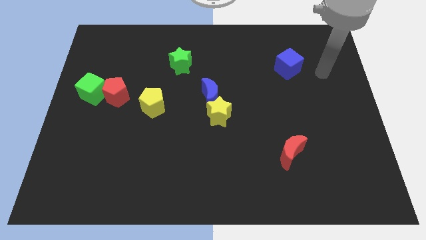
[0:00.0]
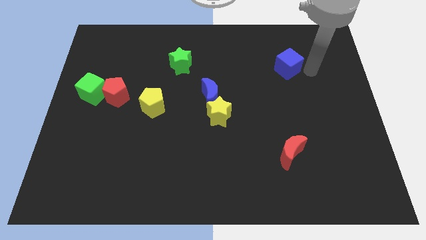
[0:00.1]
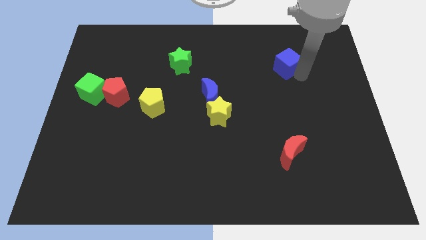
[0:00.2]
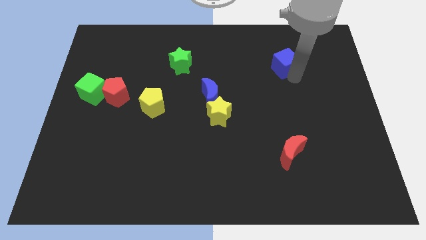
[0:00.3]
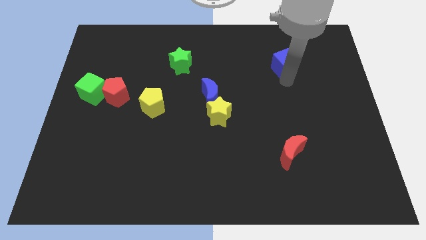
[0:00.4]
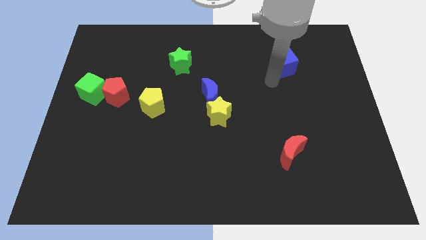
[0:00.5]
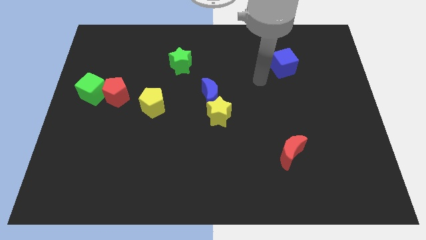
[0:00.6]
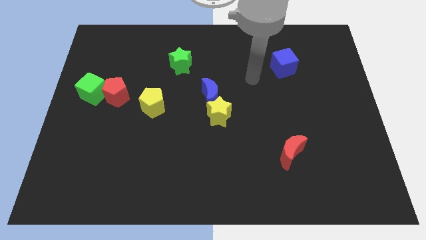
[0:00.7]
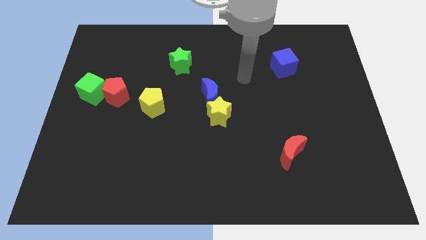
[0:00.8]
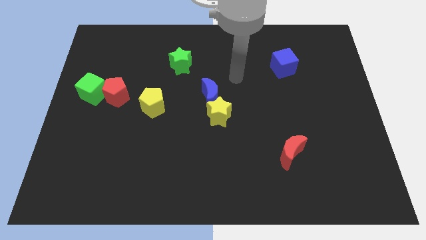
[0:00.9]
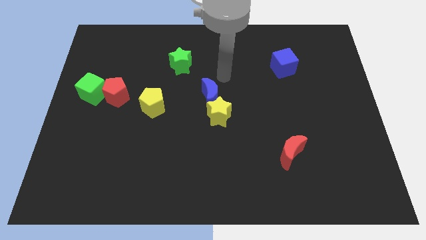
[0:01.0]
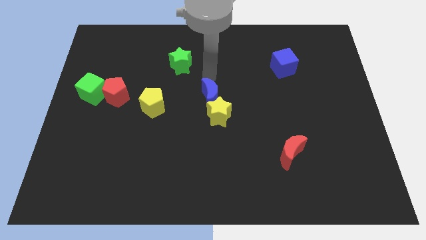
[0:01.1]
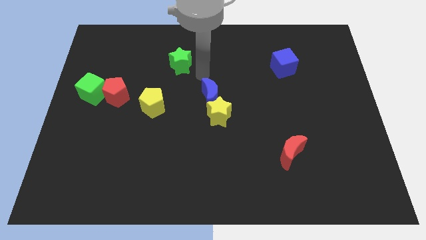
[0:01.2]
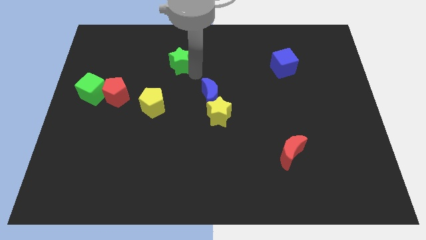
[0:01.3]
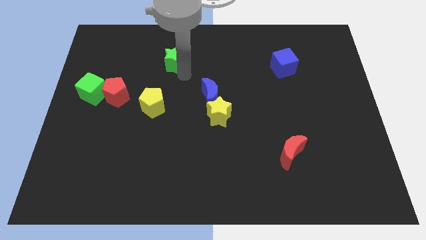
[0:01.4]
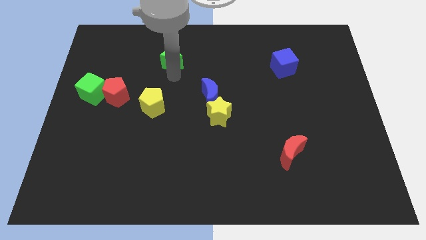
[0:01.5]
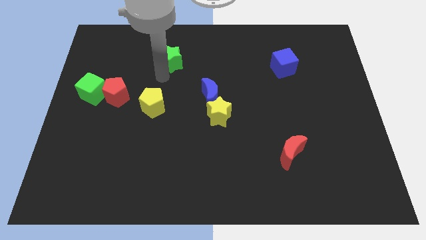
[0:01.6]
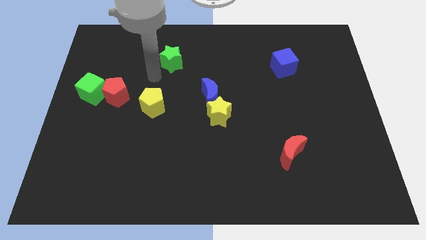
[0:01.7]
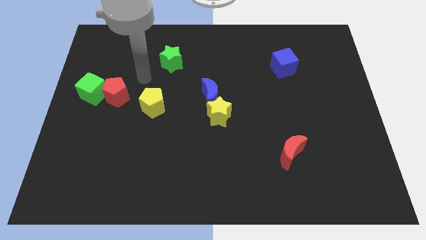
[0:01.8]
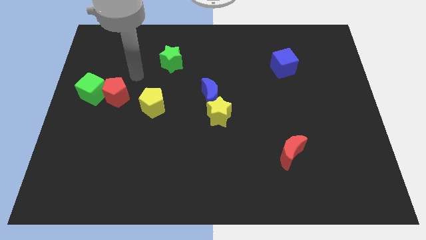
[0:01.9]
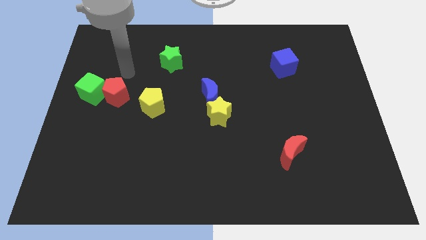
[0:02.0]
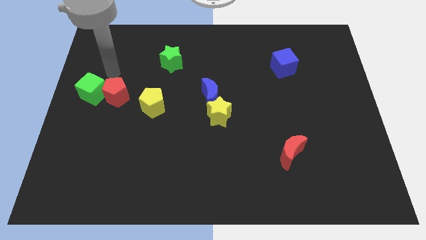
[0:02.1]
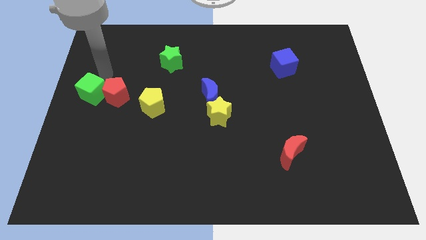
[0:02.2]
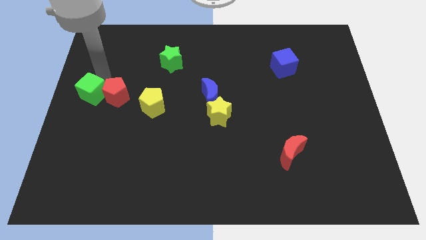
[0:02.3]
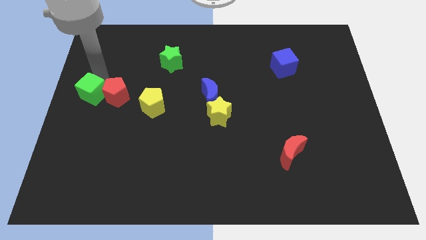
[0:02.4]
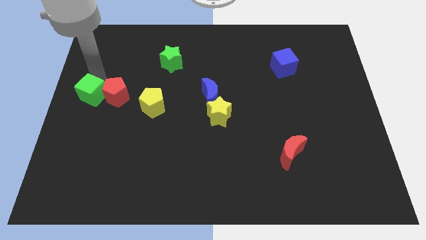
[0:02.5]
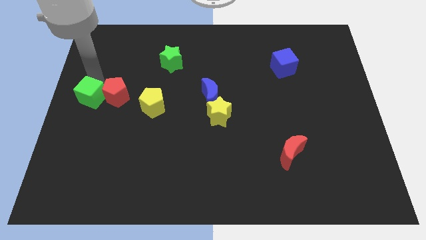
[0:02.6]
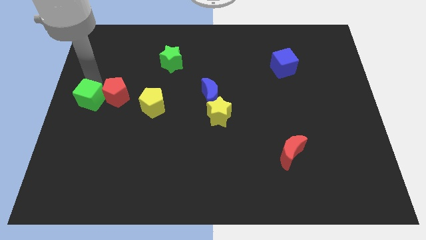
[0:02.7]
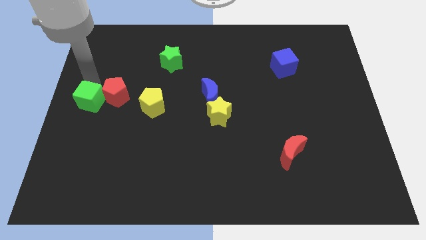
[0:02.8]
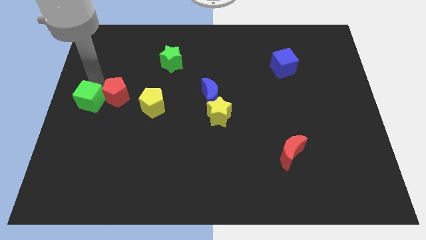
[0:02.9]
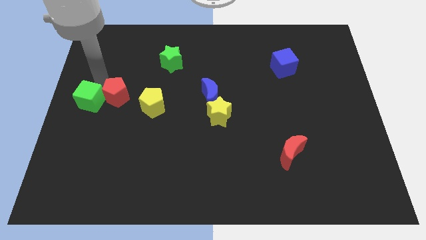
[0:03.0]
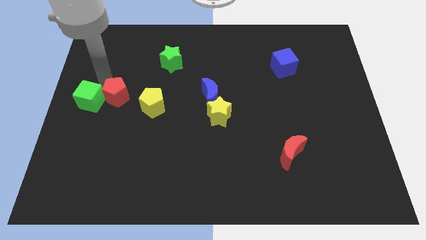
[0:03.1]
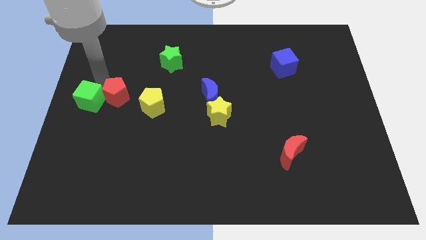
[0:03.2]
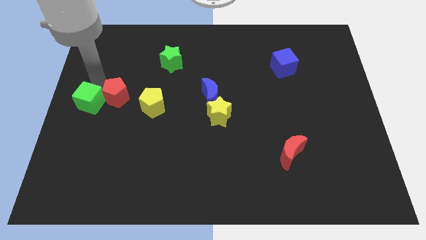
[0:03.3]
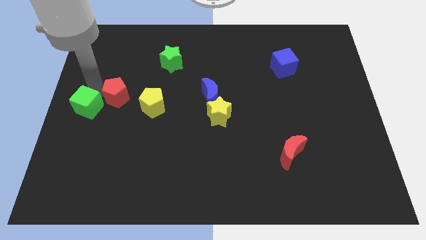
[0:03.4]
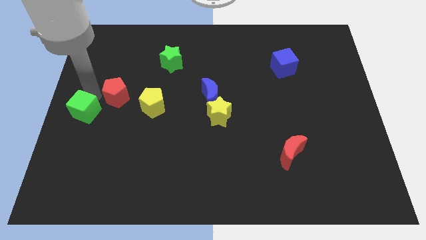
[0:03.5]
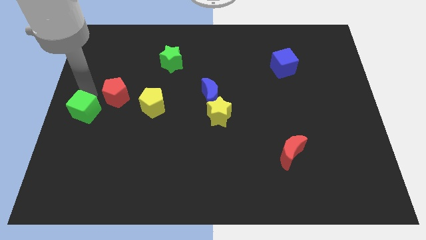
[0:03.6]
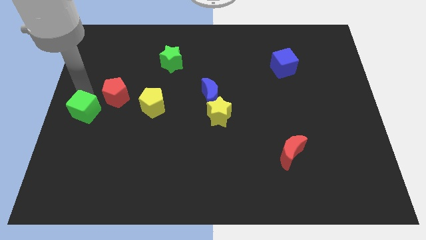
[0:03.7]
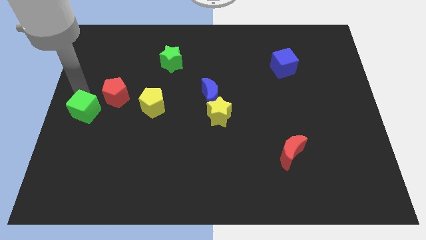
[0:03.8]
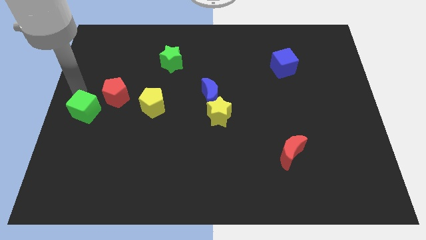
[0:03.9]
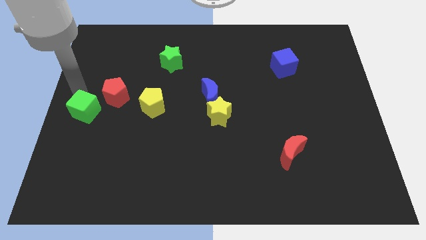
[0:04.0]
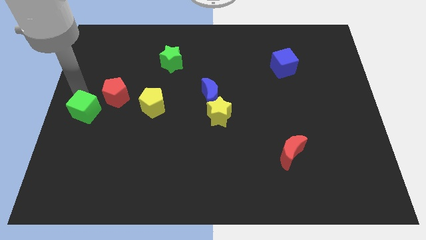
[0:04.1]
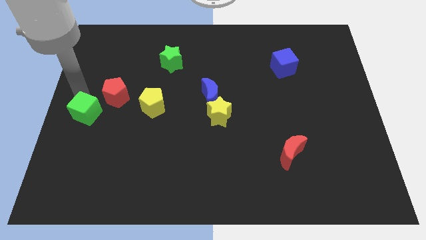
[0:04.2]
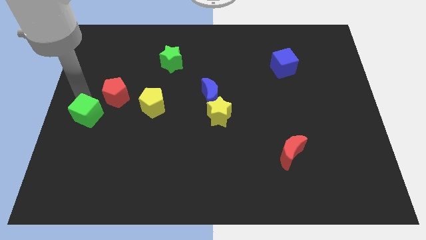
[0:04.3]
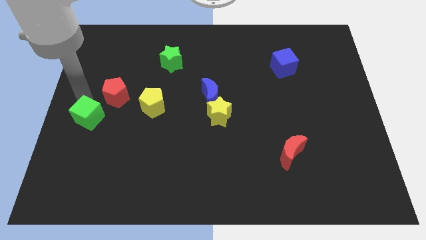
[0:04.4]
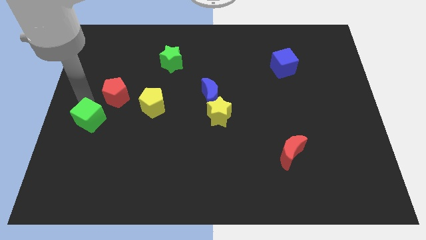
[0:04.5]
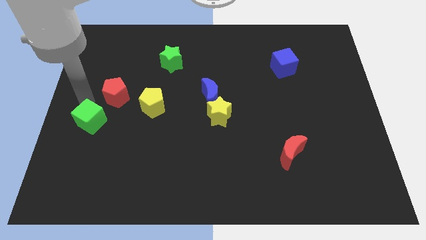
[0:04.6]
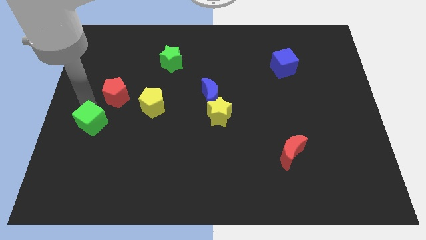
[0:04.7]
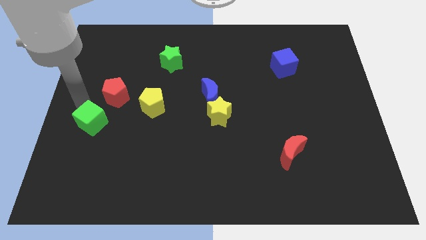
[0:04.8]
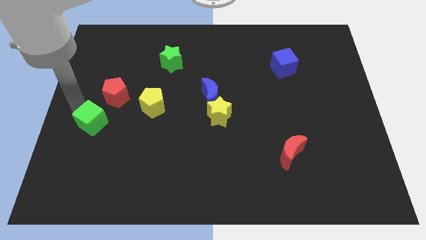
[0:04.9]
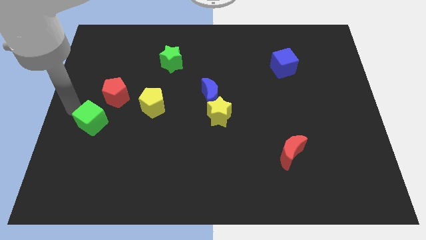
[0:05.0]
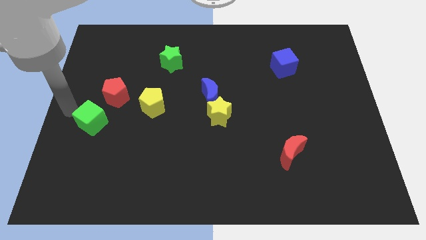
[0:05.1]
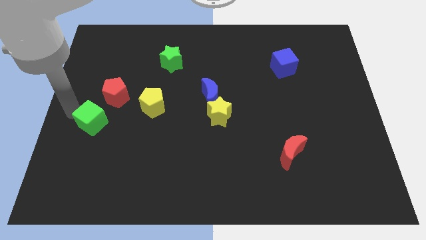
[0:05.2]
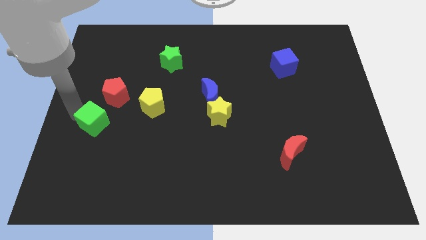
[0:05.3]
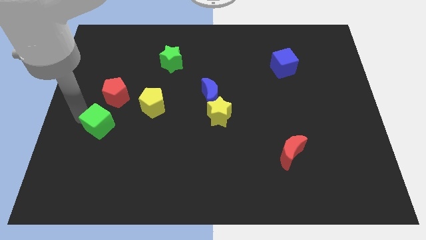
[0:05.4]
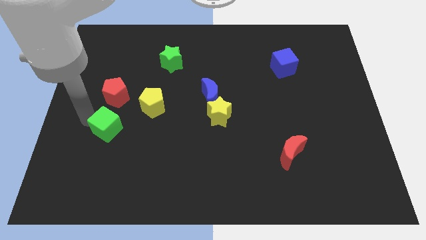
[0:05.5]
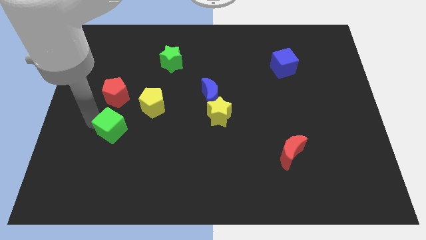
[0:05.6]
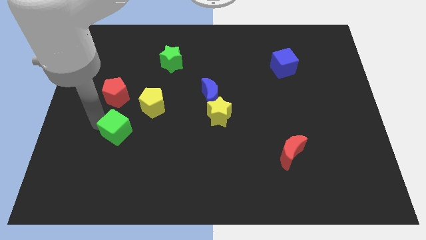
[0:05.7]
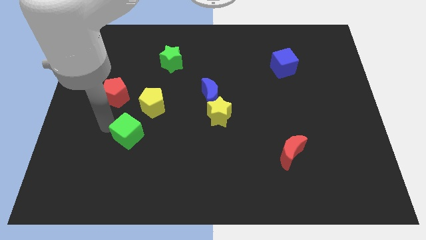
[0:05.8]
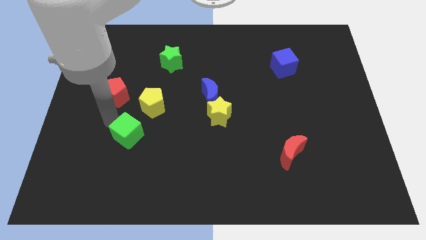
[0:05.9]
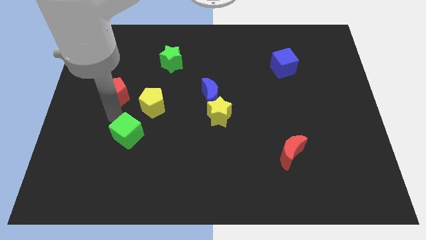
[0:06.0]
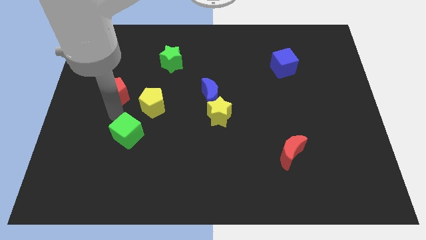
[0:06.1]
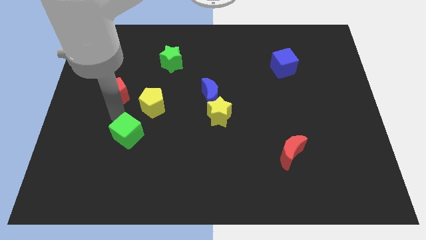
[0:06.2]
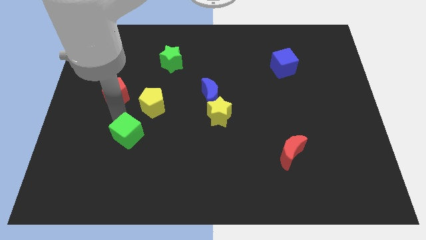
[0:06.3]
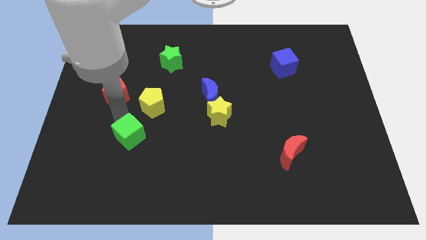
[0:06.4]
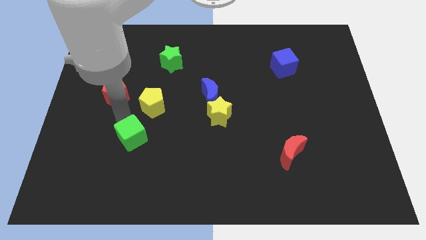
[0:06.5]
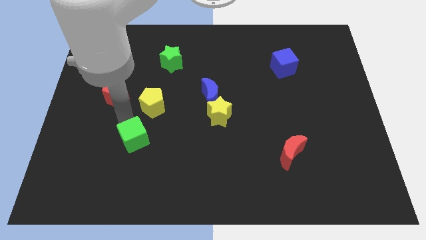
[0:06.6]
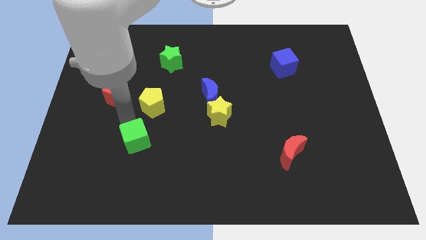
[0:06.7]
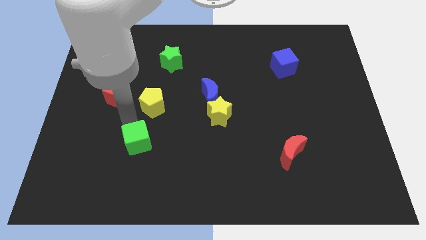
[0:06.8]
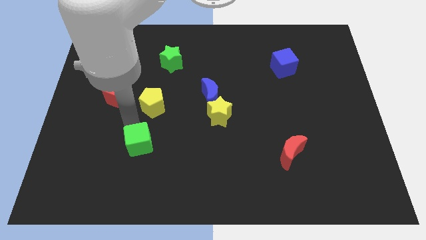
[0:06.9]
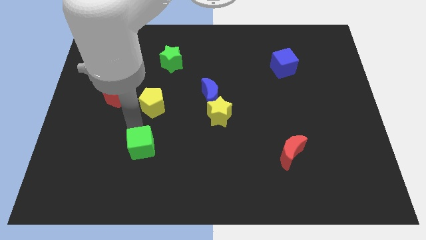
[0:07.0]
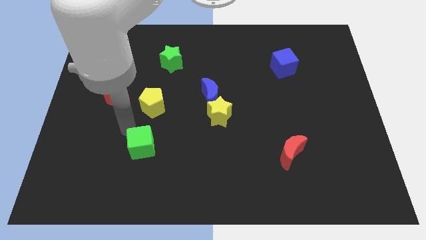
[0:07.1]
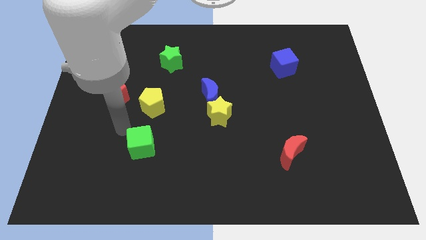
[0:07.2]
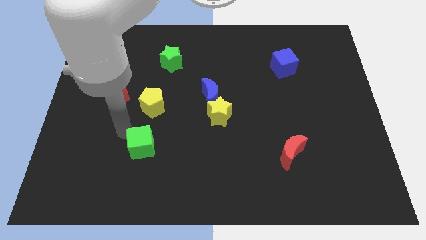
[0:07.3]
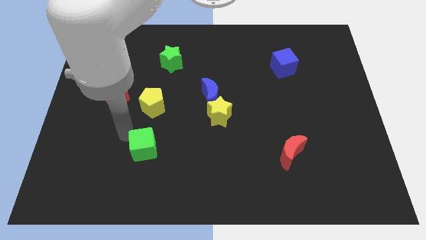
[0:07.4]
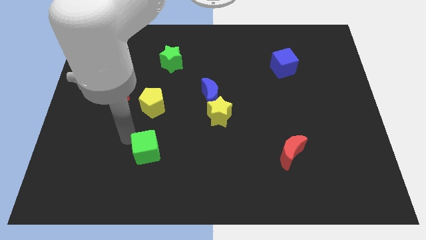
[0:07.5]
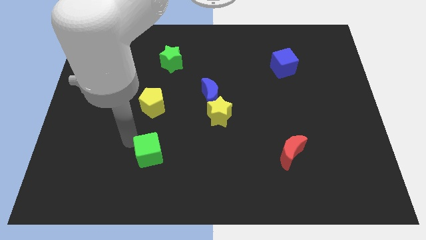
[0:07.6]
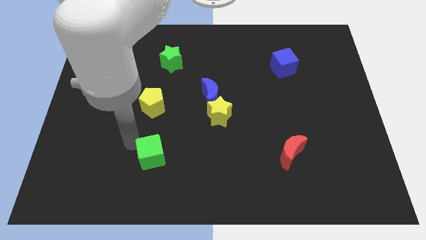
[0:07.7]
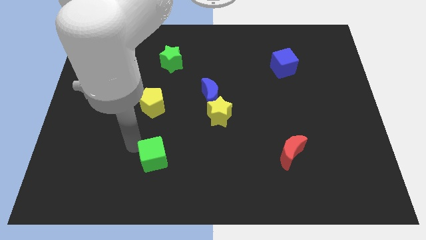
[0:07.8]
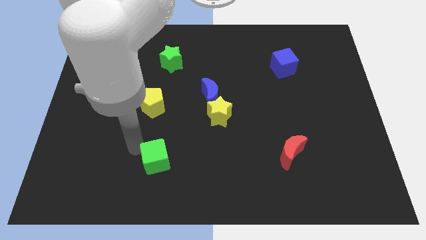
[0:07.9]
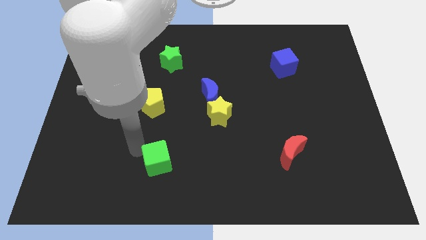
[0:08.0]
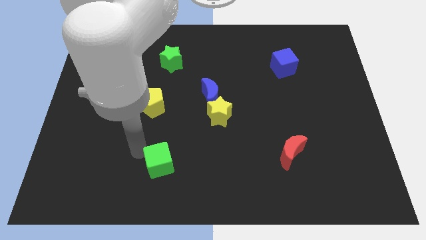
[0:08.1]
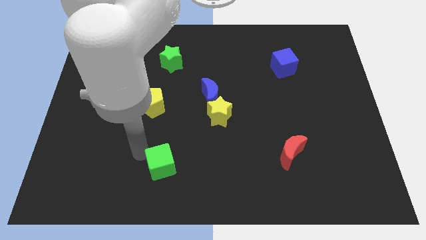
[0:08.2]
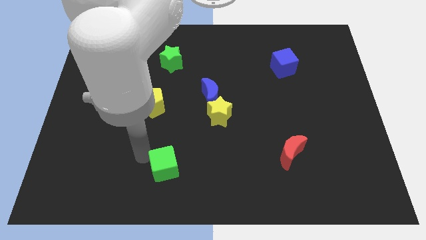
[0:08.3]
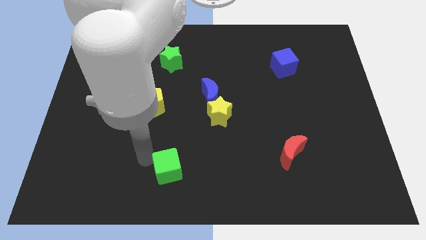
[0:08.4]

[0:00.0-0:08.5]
slide the green cube to the bottom
